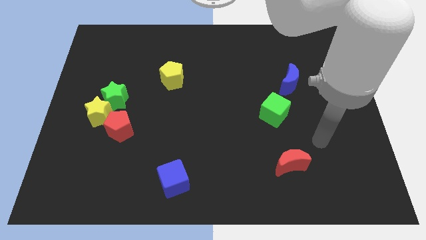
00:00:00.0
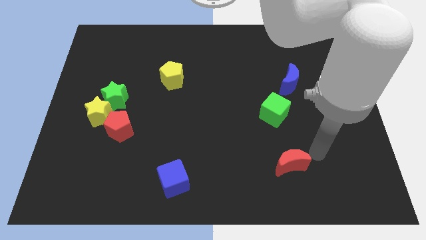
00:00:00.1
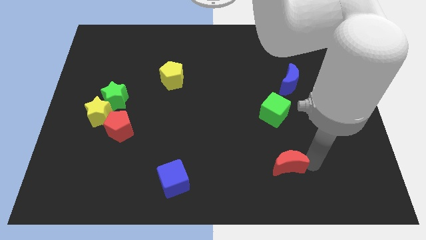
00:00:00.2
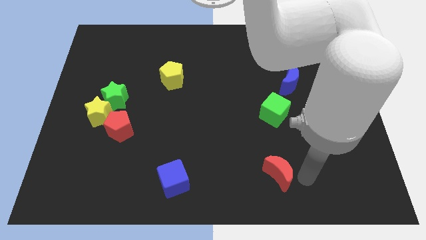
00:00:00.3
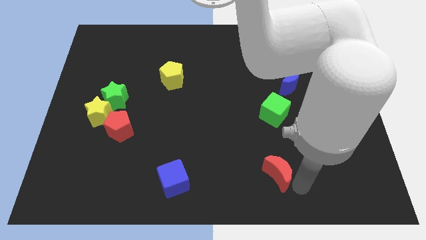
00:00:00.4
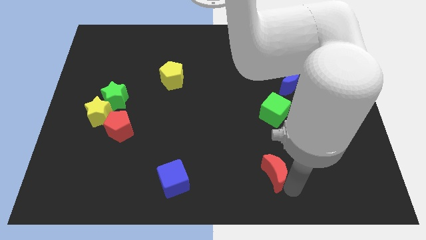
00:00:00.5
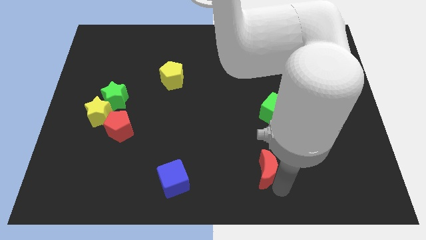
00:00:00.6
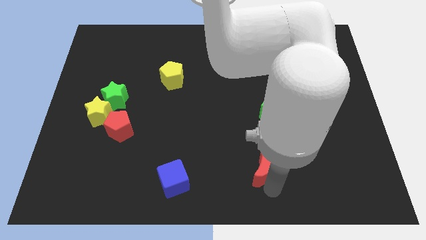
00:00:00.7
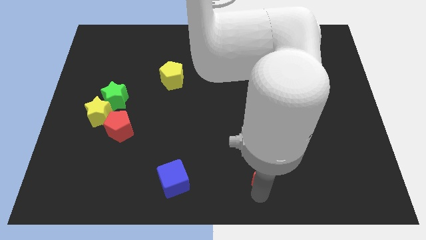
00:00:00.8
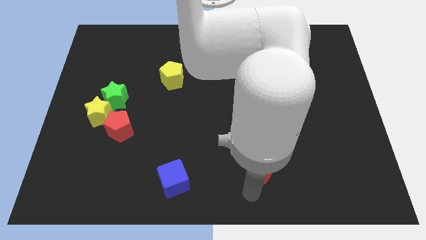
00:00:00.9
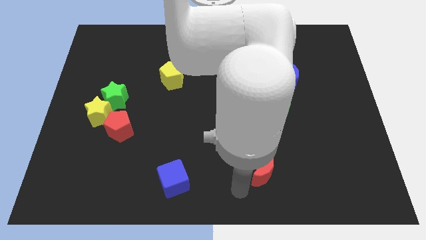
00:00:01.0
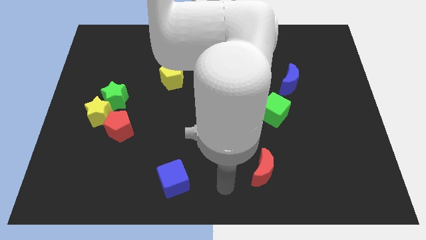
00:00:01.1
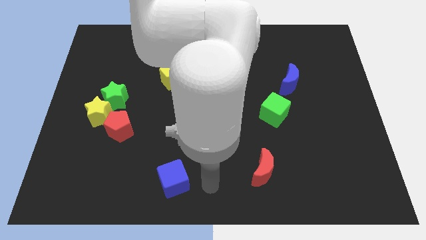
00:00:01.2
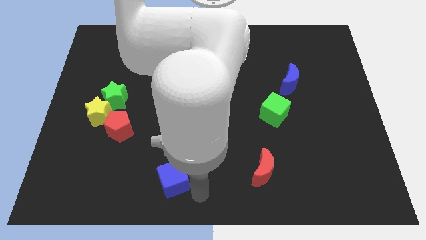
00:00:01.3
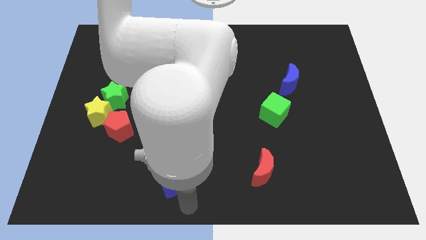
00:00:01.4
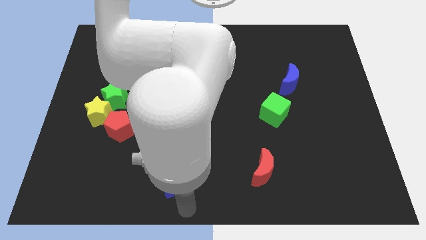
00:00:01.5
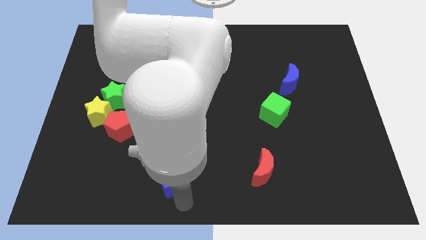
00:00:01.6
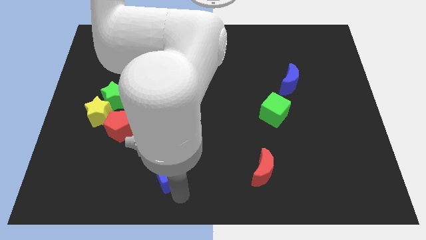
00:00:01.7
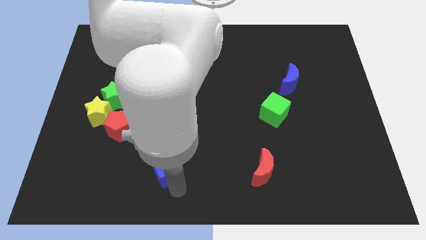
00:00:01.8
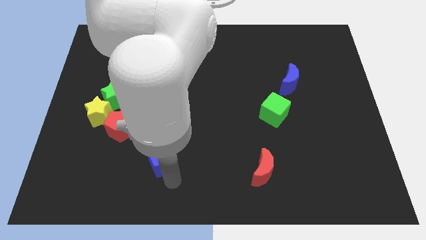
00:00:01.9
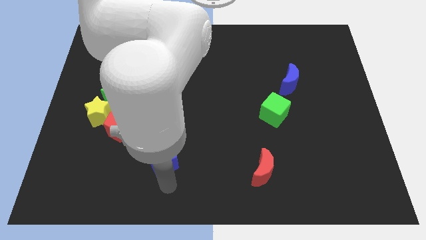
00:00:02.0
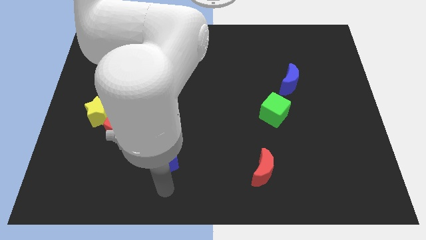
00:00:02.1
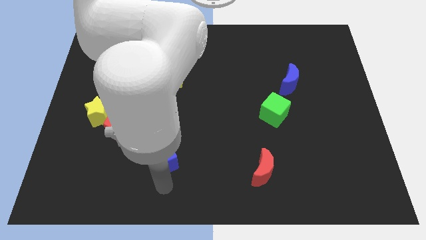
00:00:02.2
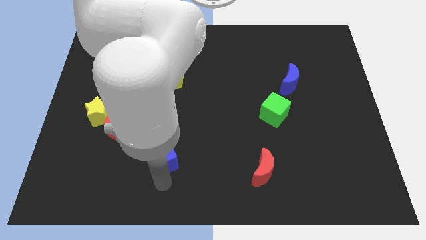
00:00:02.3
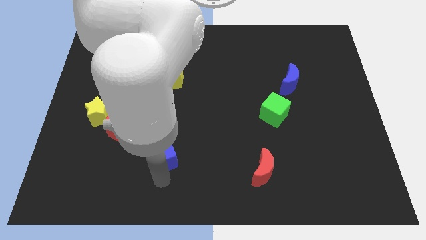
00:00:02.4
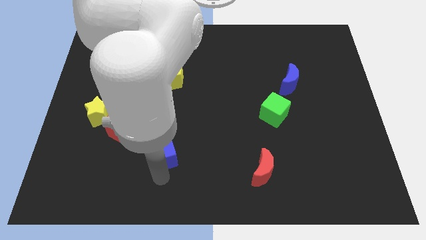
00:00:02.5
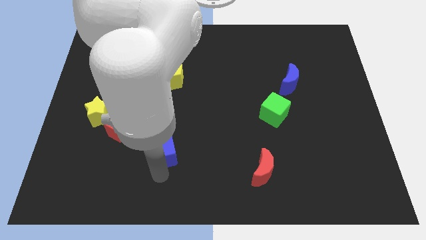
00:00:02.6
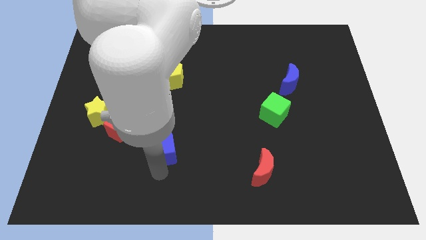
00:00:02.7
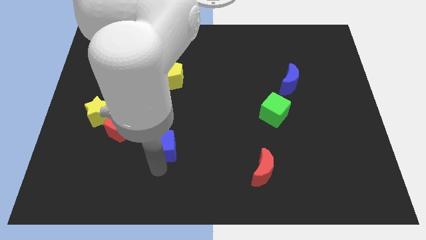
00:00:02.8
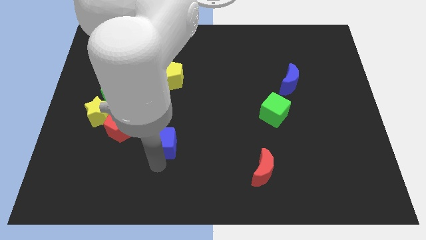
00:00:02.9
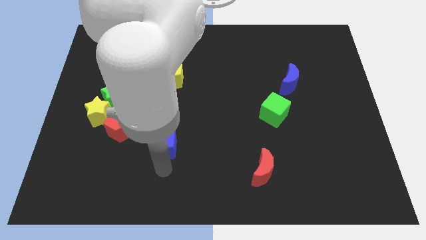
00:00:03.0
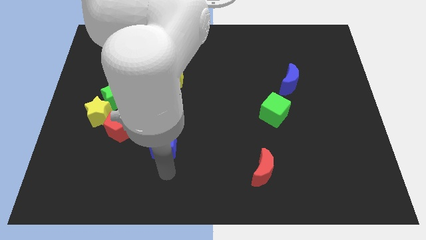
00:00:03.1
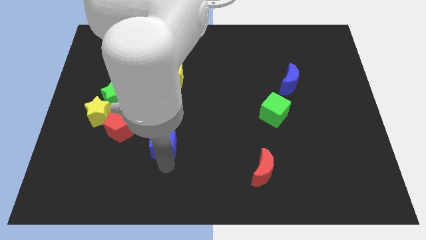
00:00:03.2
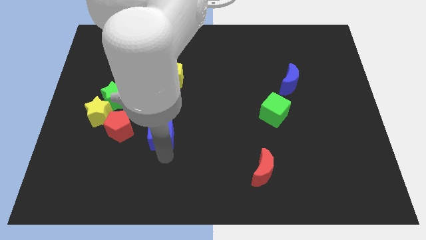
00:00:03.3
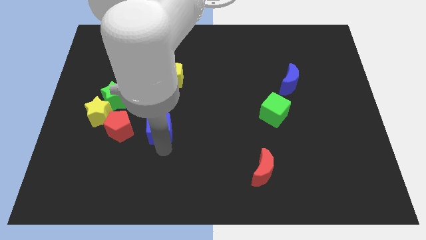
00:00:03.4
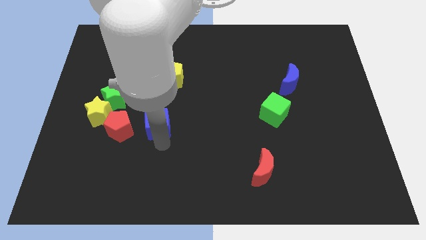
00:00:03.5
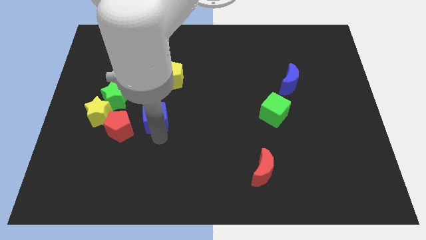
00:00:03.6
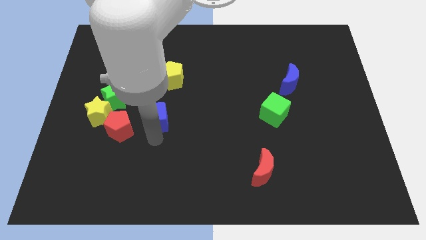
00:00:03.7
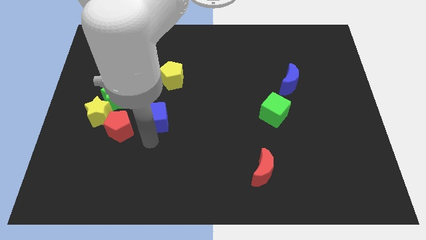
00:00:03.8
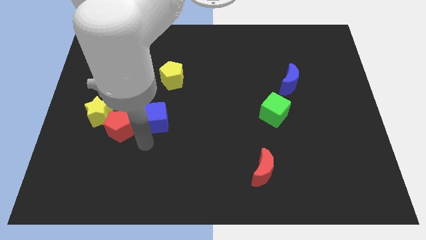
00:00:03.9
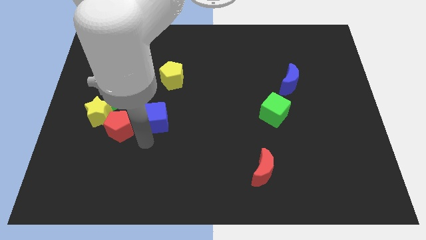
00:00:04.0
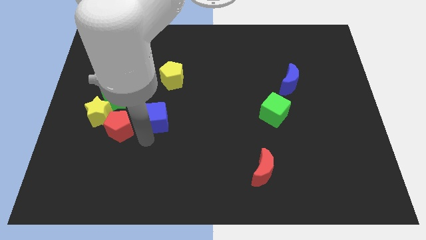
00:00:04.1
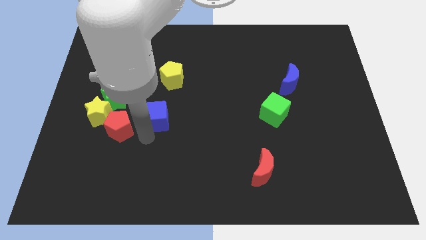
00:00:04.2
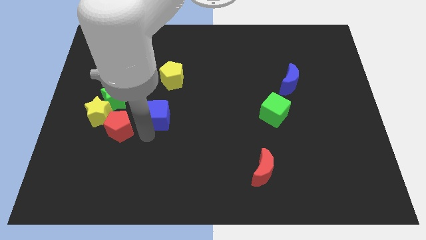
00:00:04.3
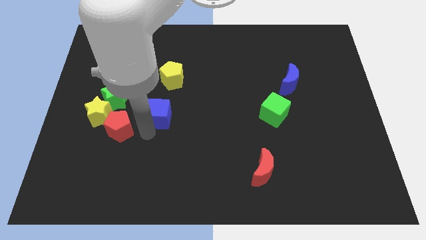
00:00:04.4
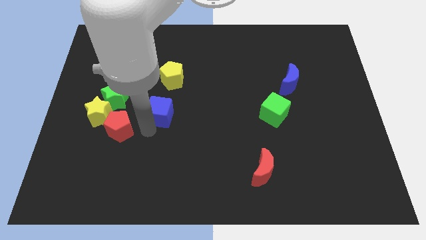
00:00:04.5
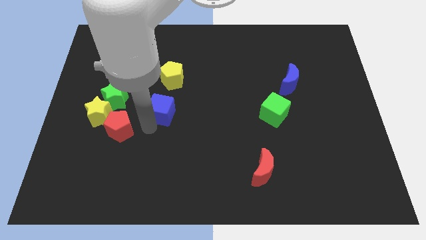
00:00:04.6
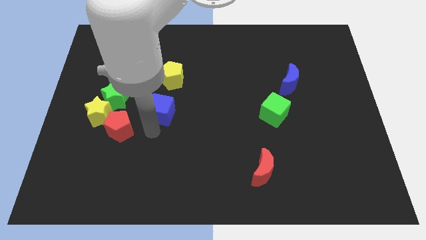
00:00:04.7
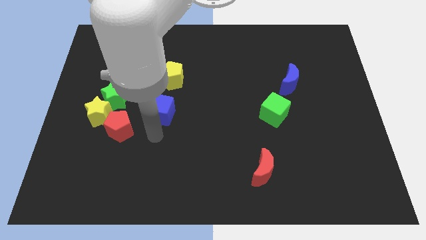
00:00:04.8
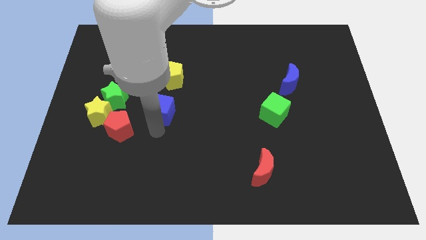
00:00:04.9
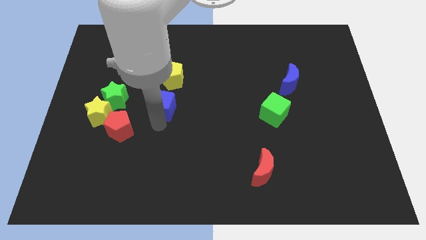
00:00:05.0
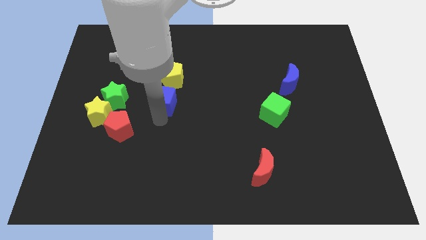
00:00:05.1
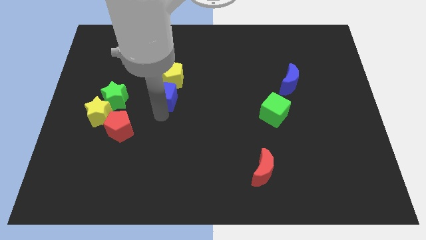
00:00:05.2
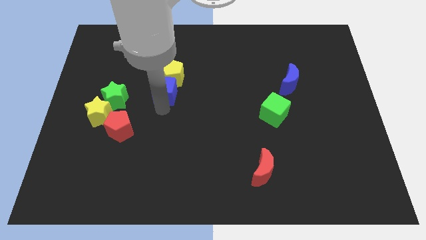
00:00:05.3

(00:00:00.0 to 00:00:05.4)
move the blue cube close to the yellow pentagon

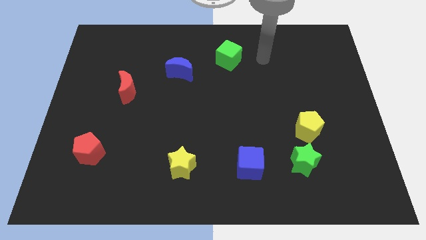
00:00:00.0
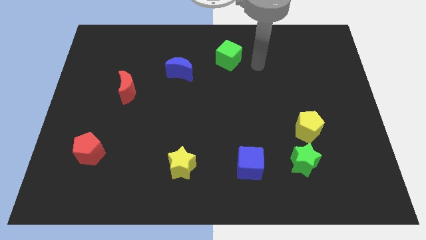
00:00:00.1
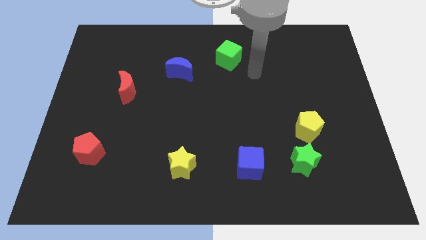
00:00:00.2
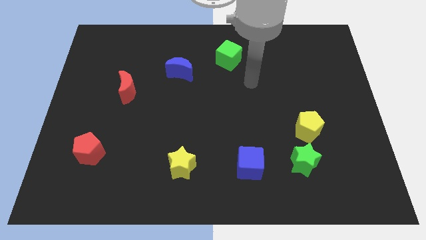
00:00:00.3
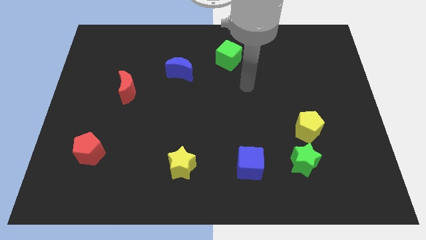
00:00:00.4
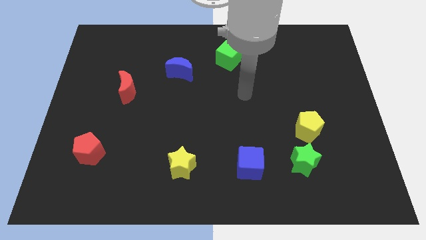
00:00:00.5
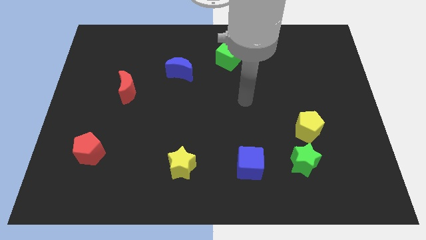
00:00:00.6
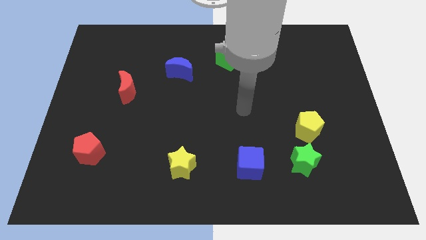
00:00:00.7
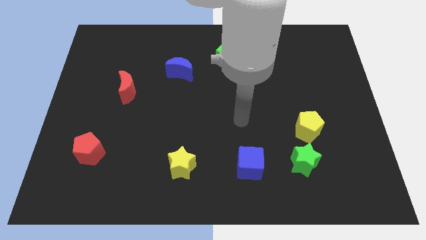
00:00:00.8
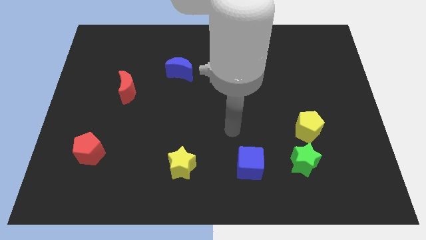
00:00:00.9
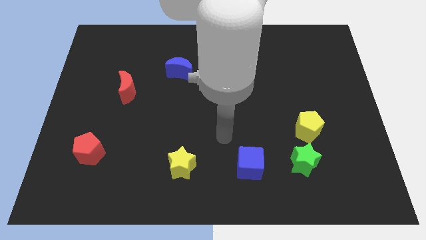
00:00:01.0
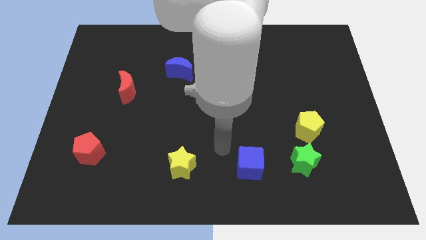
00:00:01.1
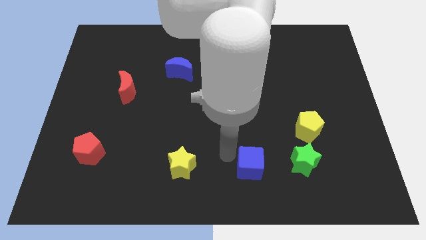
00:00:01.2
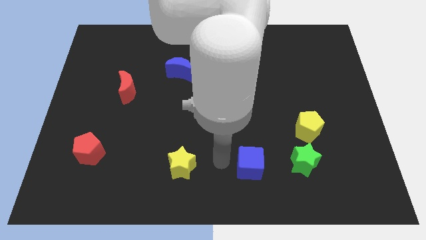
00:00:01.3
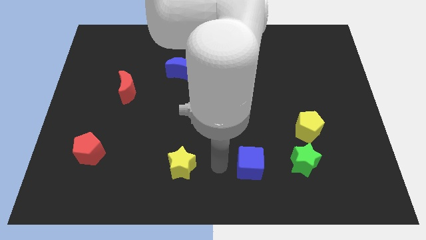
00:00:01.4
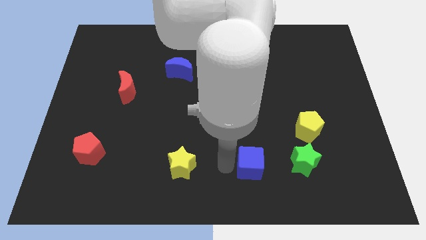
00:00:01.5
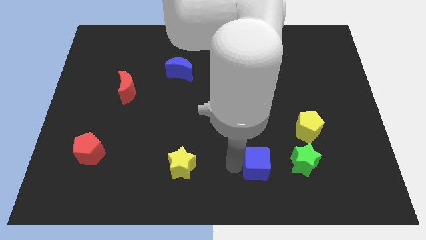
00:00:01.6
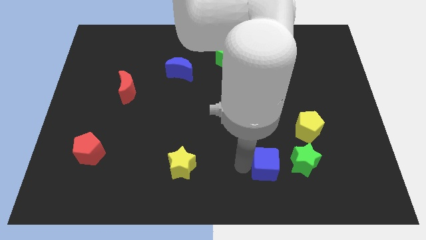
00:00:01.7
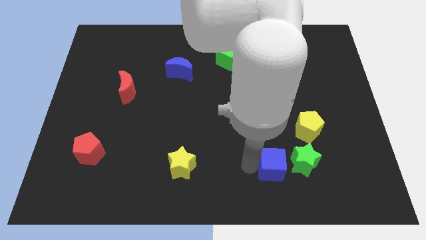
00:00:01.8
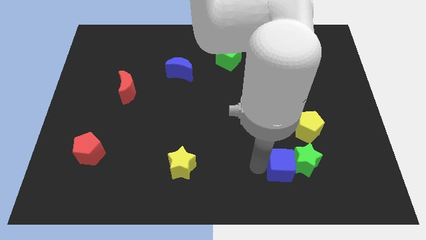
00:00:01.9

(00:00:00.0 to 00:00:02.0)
push the blue cube next to the green star
